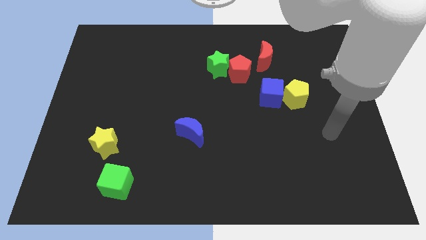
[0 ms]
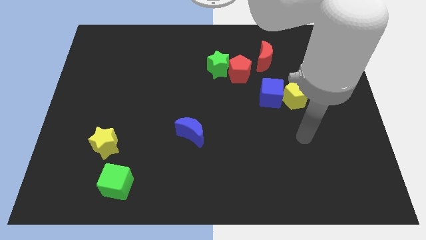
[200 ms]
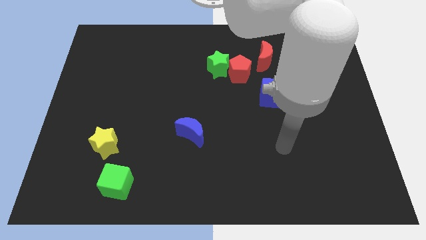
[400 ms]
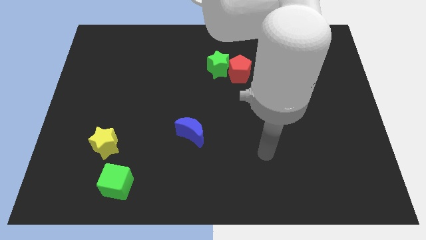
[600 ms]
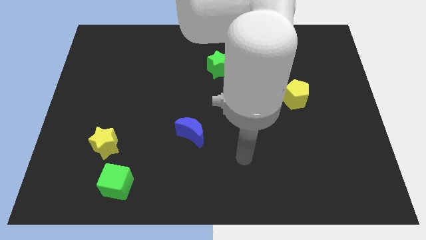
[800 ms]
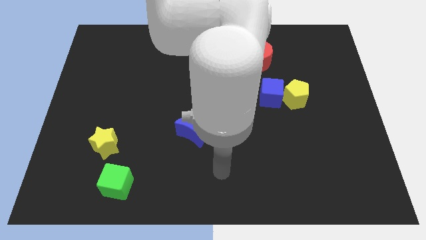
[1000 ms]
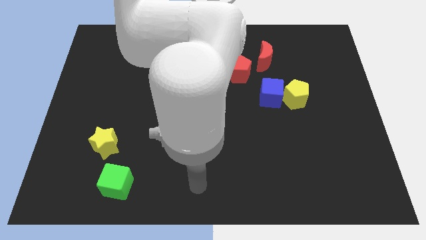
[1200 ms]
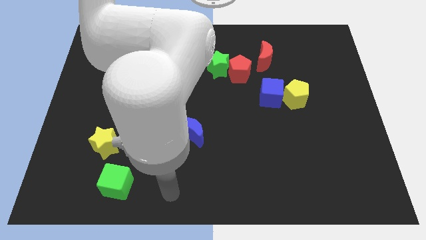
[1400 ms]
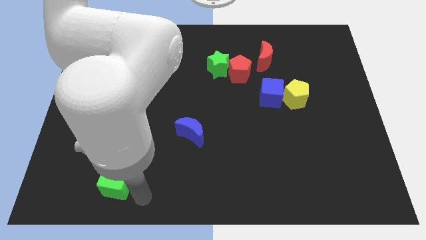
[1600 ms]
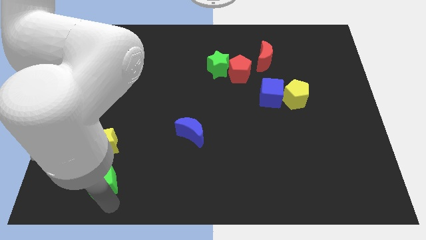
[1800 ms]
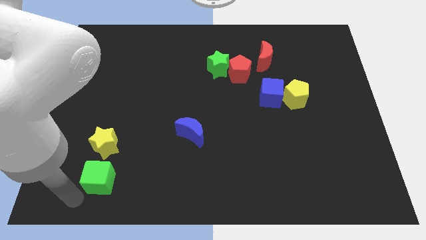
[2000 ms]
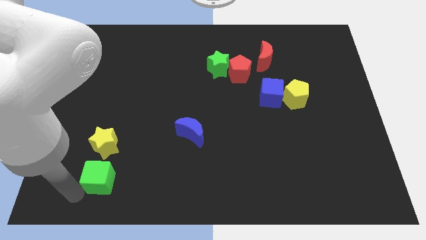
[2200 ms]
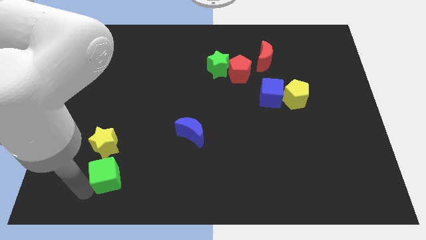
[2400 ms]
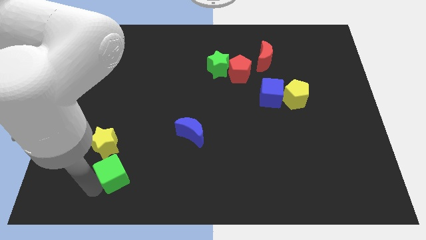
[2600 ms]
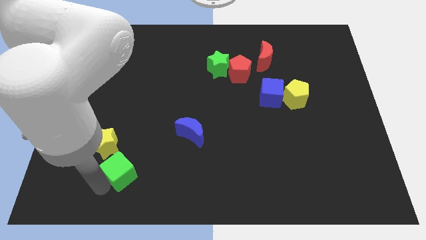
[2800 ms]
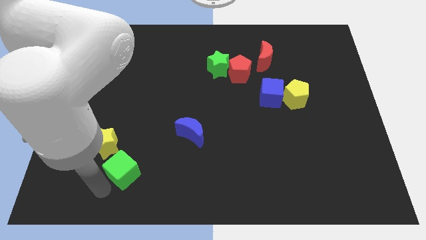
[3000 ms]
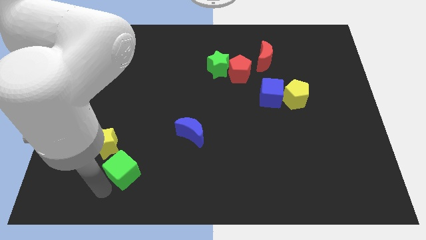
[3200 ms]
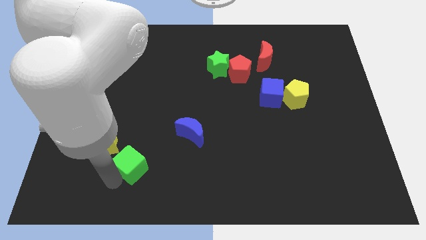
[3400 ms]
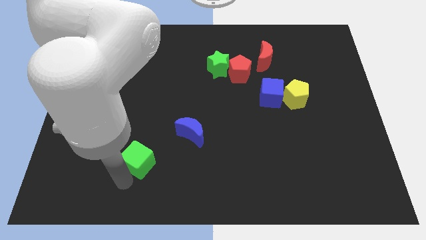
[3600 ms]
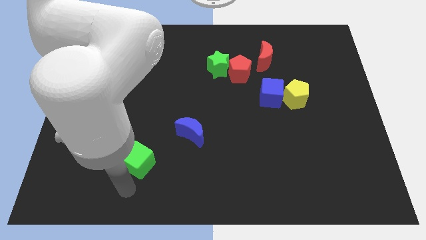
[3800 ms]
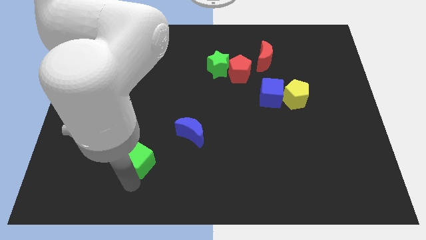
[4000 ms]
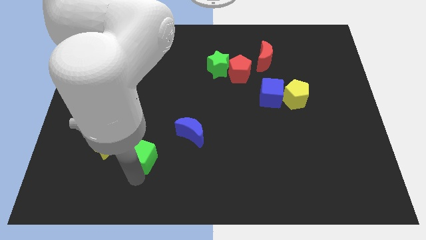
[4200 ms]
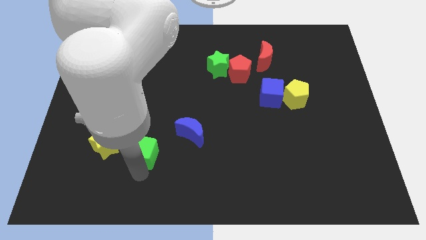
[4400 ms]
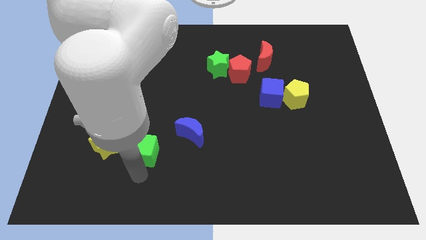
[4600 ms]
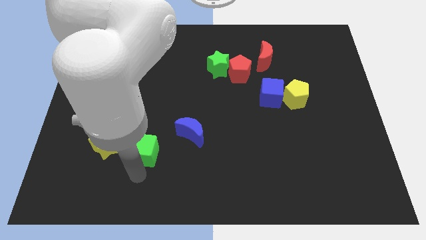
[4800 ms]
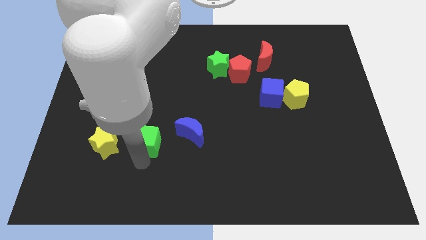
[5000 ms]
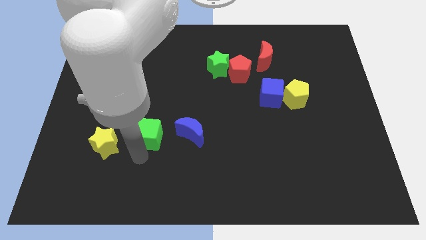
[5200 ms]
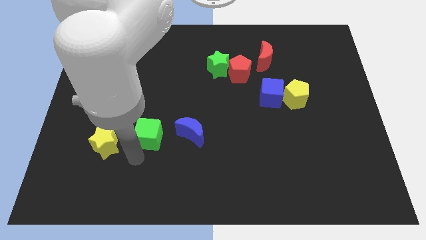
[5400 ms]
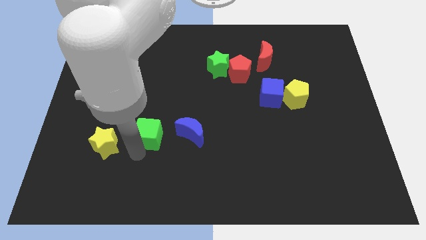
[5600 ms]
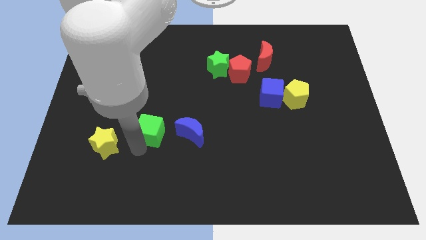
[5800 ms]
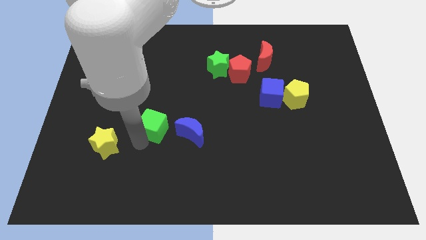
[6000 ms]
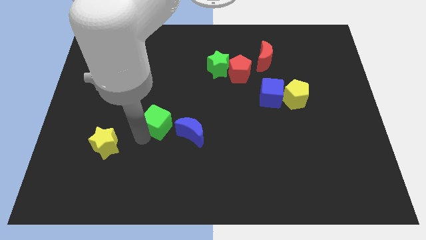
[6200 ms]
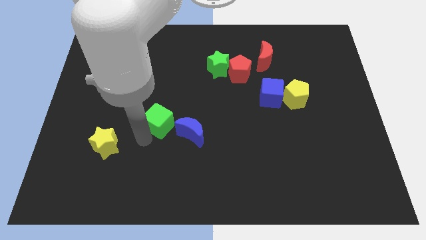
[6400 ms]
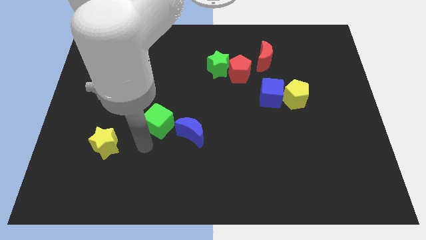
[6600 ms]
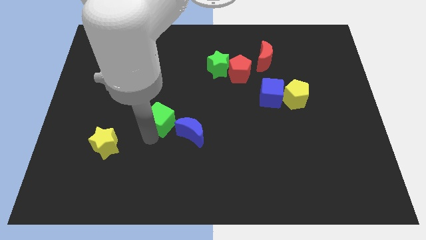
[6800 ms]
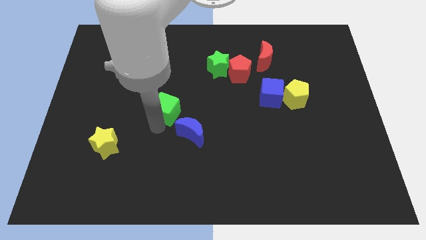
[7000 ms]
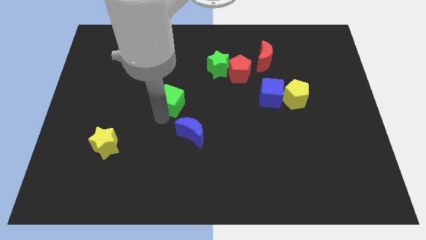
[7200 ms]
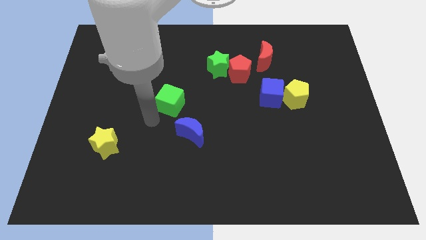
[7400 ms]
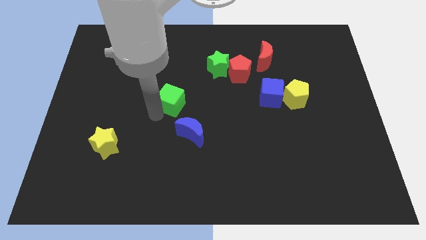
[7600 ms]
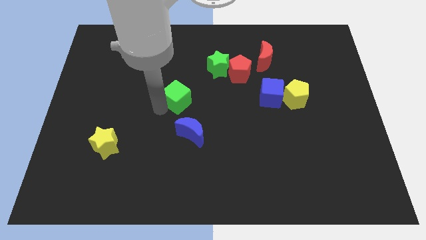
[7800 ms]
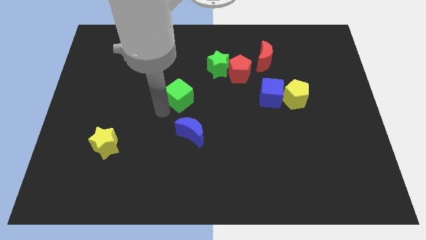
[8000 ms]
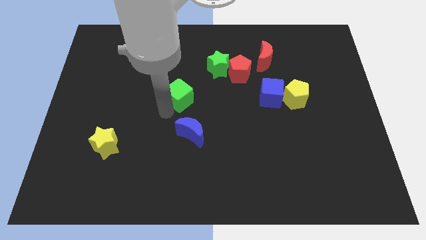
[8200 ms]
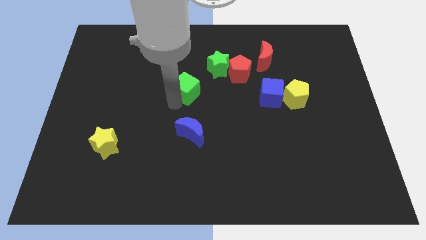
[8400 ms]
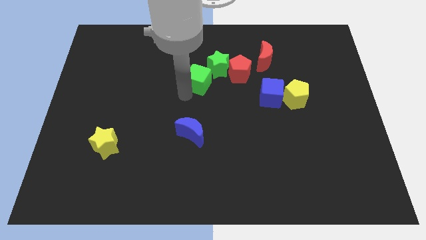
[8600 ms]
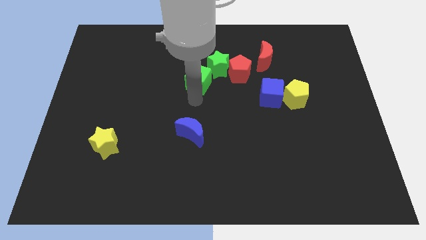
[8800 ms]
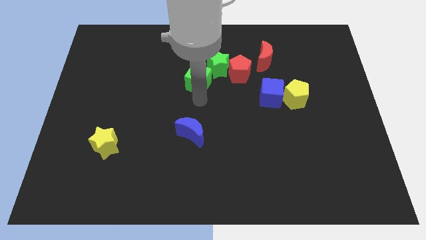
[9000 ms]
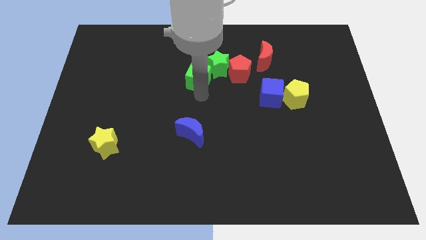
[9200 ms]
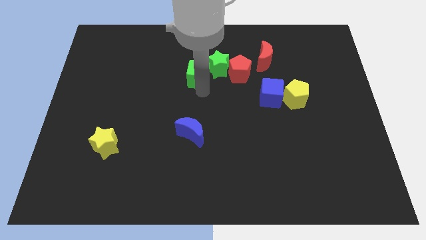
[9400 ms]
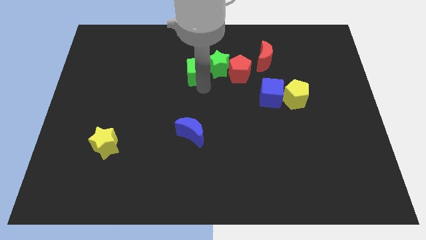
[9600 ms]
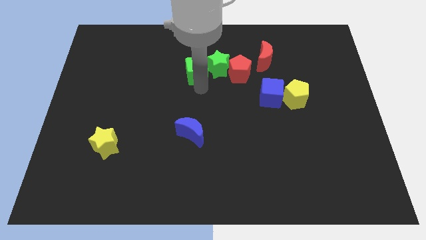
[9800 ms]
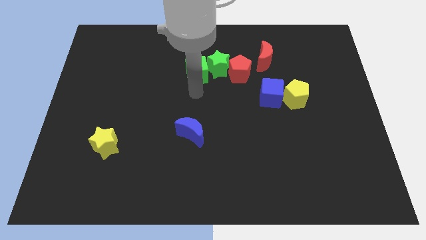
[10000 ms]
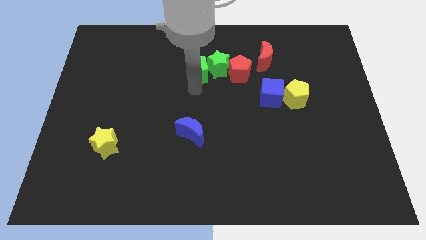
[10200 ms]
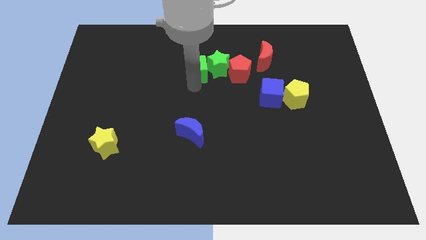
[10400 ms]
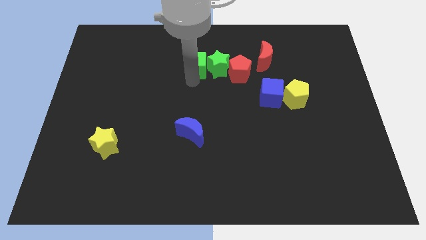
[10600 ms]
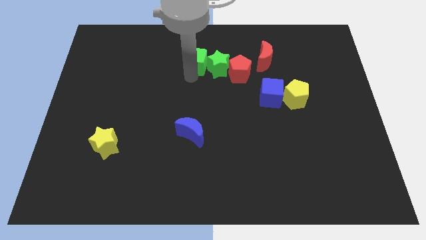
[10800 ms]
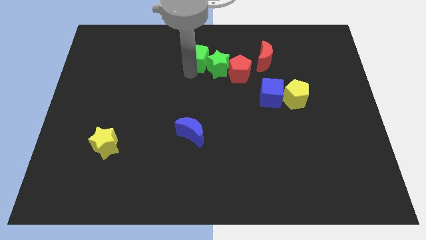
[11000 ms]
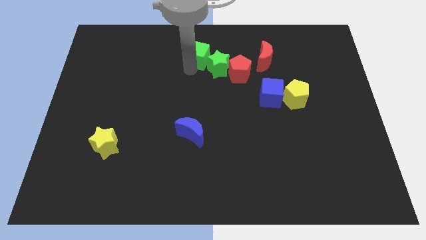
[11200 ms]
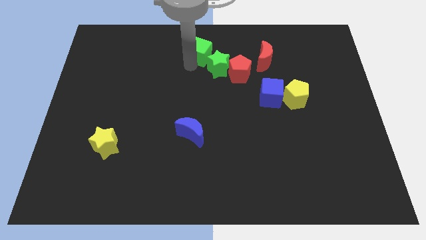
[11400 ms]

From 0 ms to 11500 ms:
move the green cube to the top side
